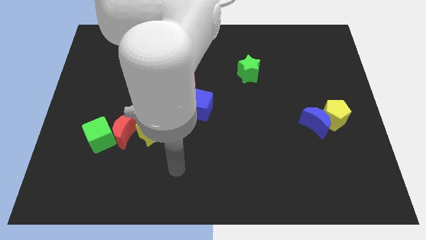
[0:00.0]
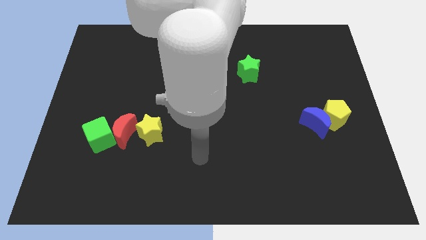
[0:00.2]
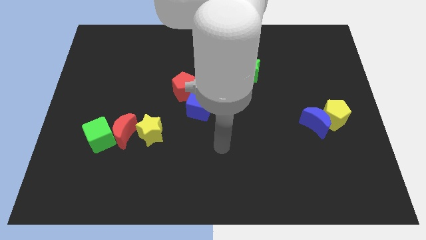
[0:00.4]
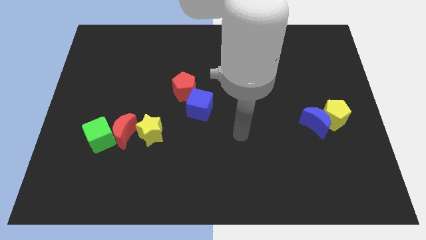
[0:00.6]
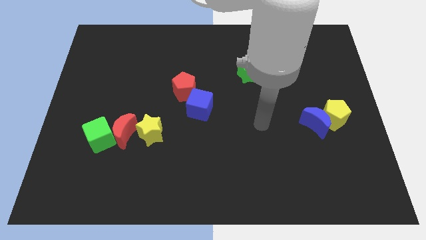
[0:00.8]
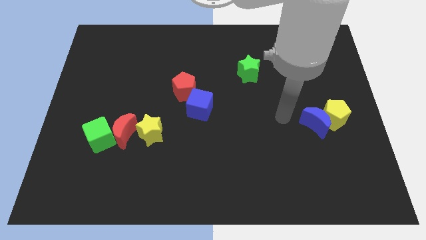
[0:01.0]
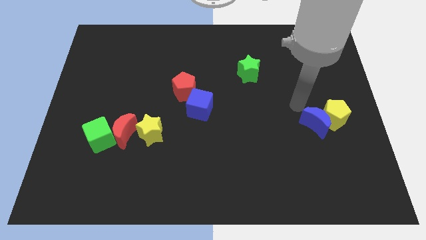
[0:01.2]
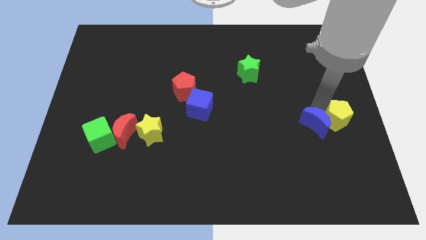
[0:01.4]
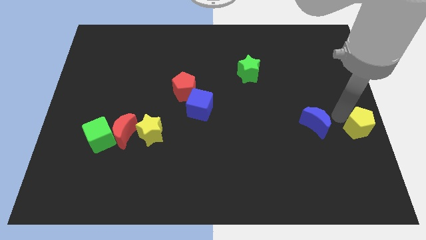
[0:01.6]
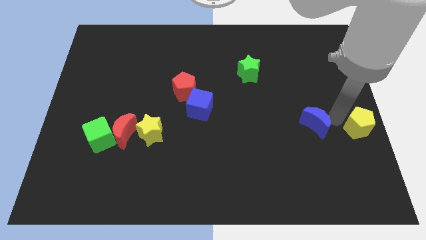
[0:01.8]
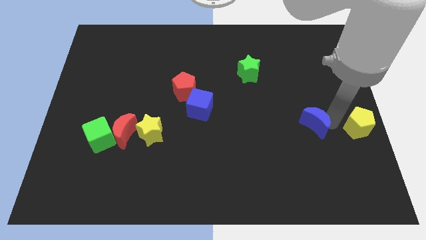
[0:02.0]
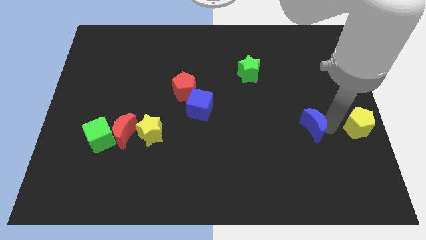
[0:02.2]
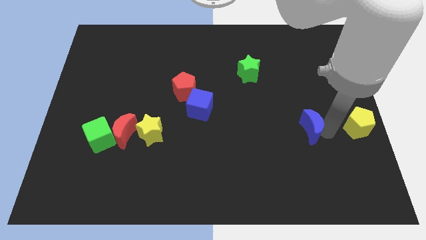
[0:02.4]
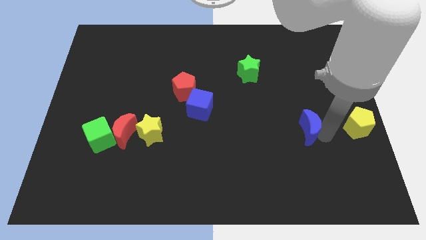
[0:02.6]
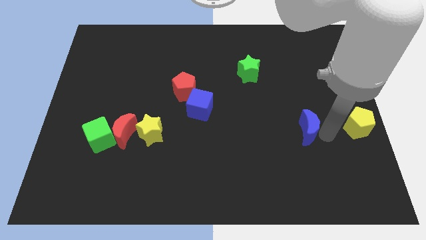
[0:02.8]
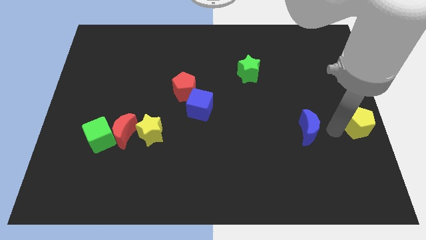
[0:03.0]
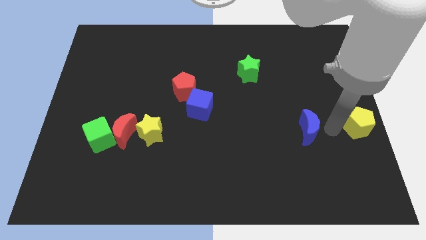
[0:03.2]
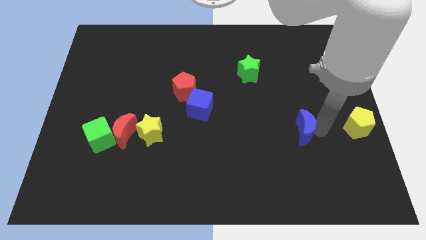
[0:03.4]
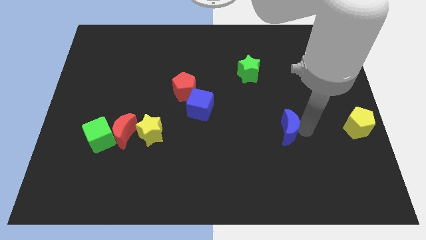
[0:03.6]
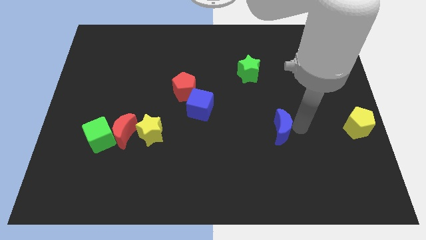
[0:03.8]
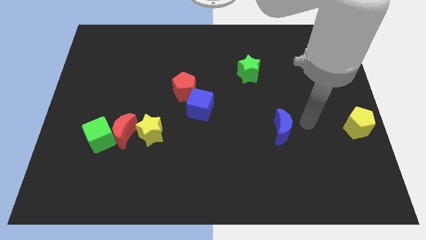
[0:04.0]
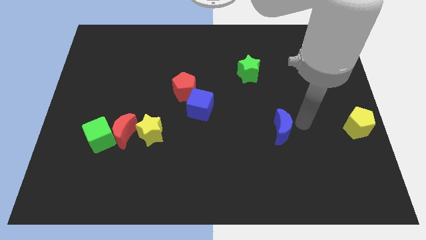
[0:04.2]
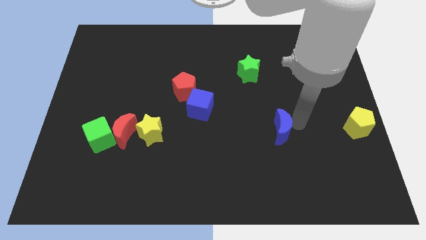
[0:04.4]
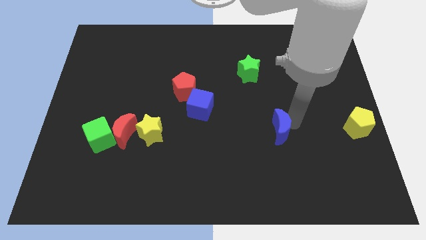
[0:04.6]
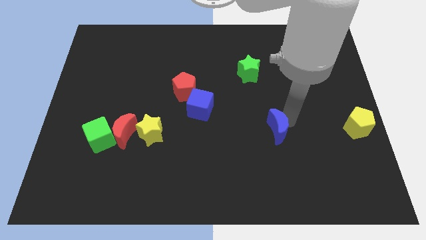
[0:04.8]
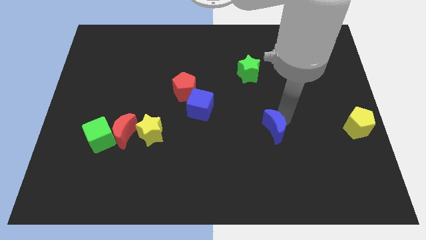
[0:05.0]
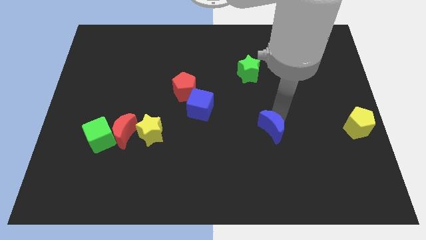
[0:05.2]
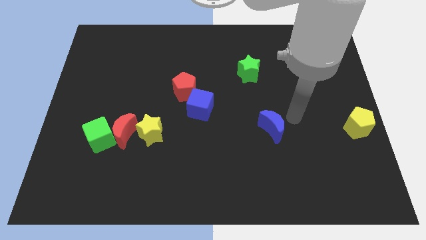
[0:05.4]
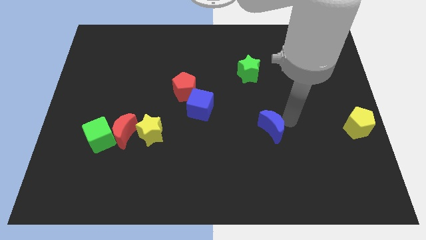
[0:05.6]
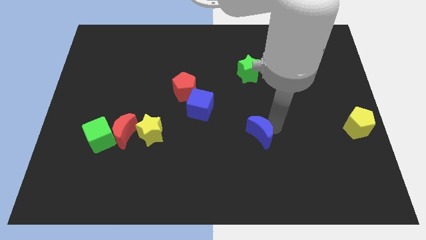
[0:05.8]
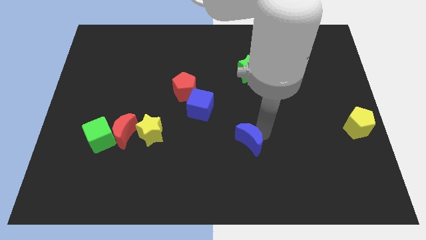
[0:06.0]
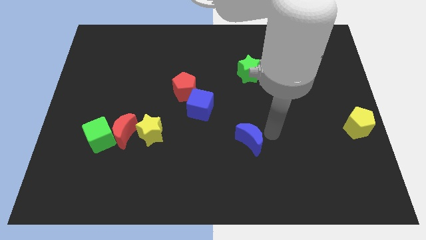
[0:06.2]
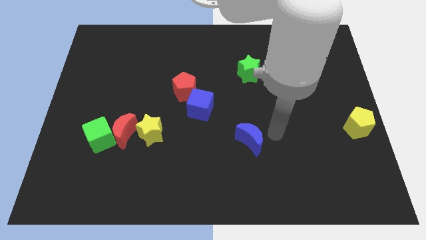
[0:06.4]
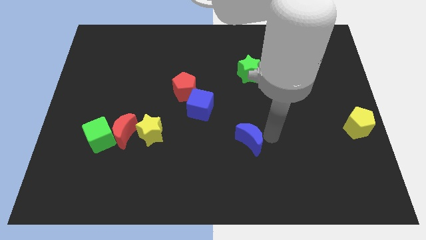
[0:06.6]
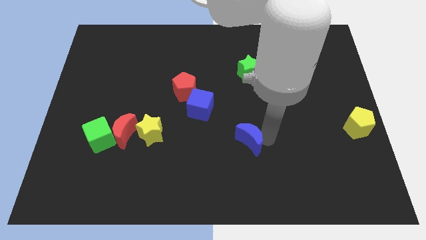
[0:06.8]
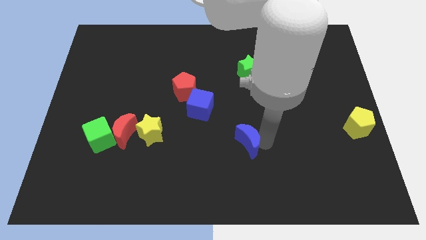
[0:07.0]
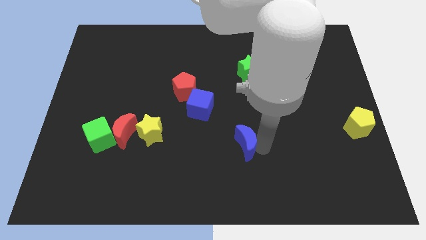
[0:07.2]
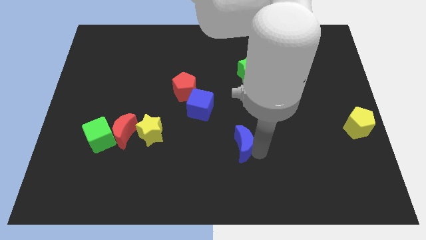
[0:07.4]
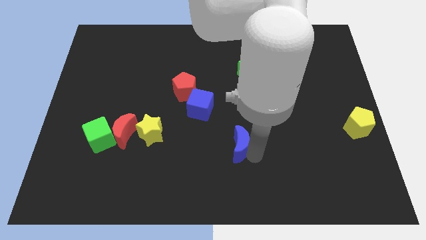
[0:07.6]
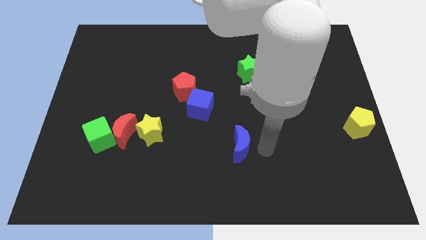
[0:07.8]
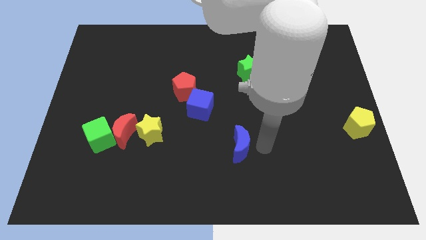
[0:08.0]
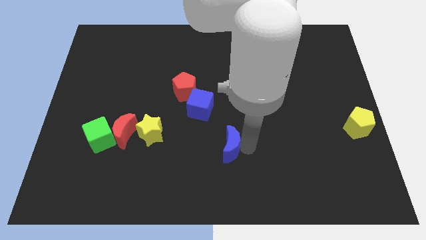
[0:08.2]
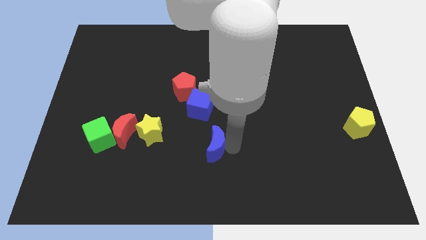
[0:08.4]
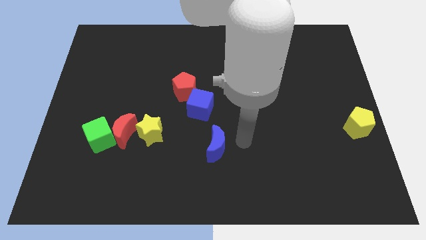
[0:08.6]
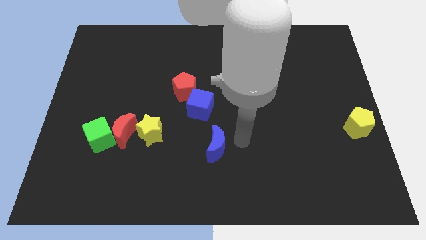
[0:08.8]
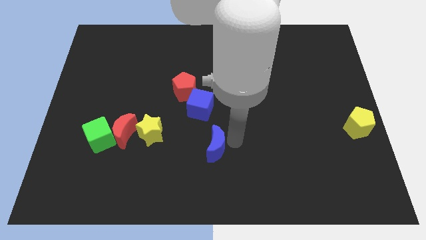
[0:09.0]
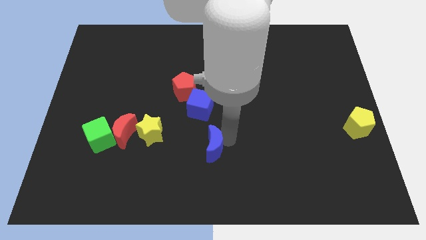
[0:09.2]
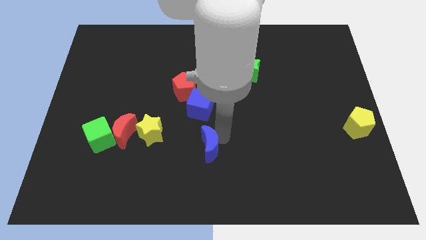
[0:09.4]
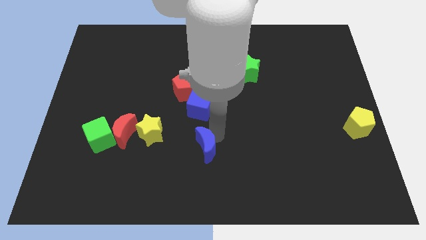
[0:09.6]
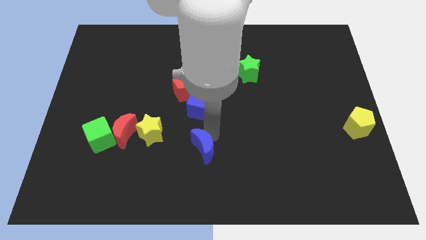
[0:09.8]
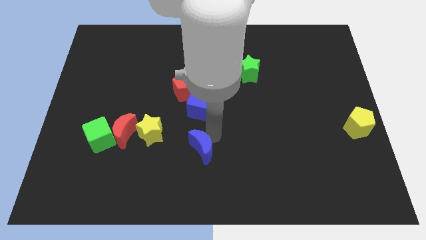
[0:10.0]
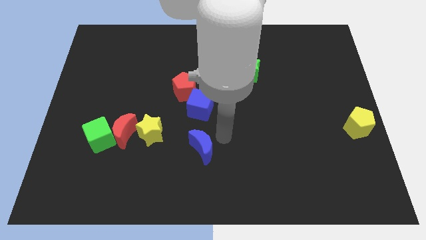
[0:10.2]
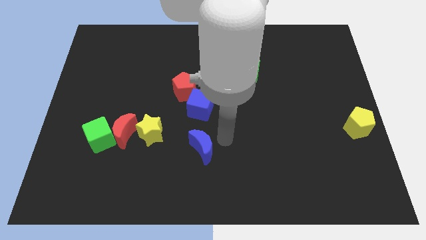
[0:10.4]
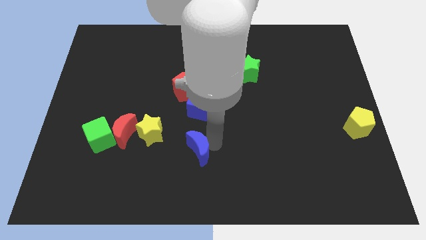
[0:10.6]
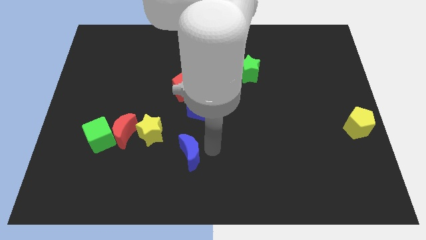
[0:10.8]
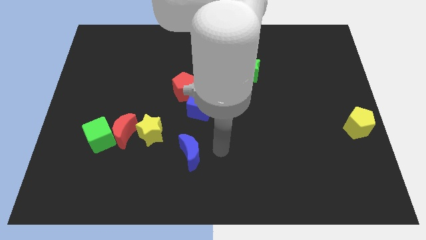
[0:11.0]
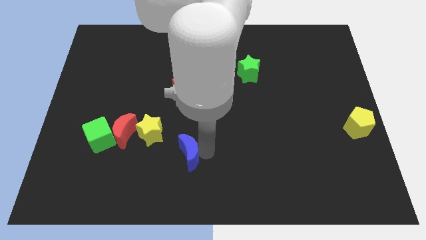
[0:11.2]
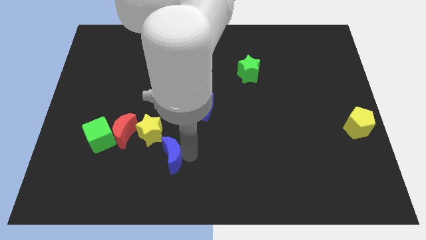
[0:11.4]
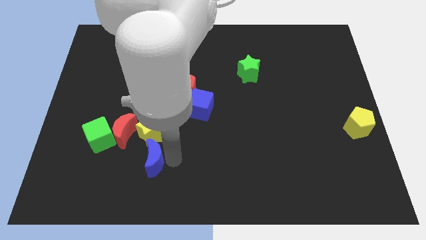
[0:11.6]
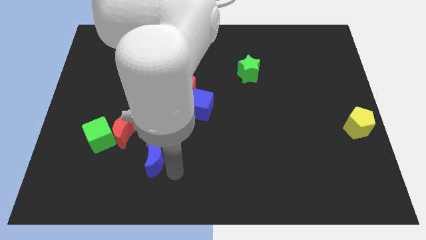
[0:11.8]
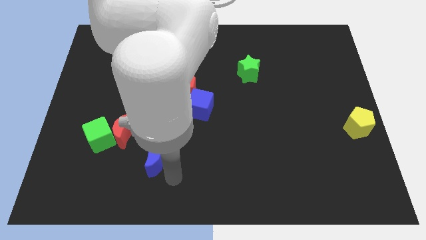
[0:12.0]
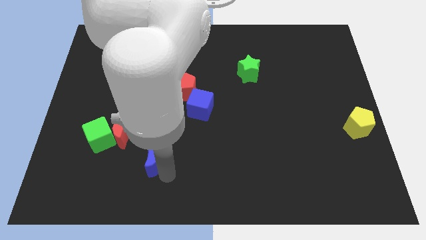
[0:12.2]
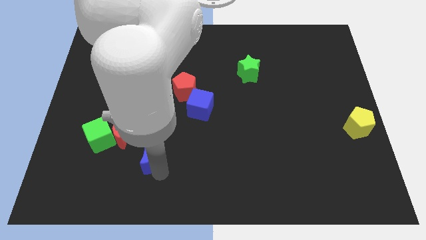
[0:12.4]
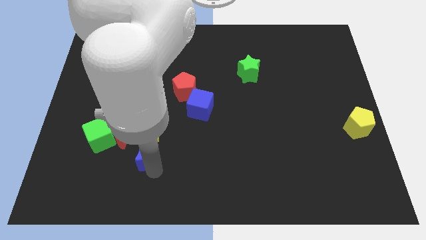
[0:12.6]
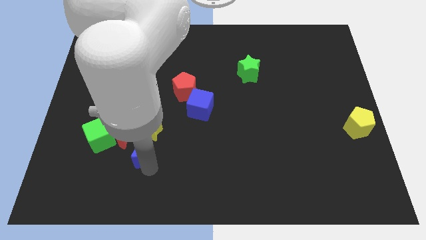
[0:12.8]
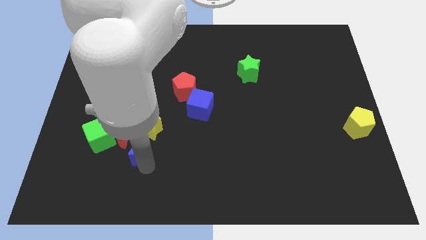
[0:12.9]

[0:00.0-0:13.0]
slide the blue moon towards the red moon

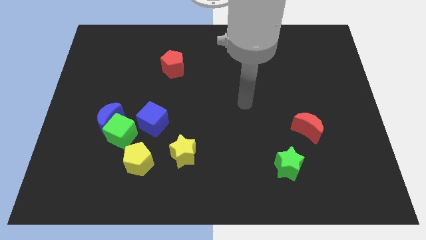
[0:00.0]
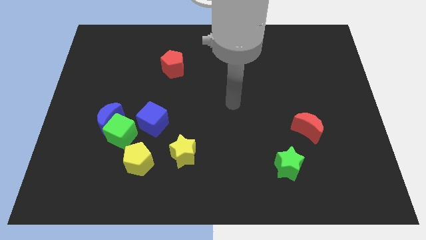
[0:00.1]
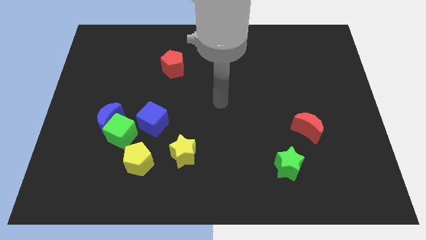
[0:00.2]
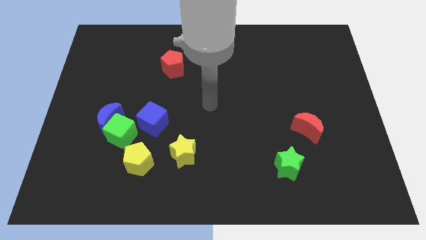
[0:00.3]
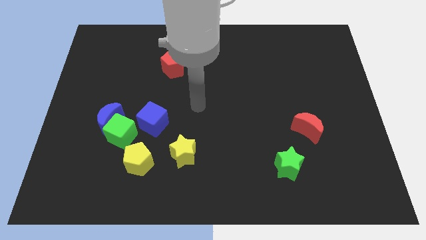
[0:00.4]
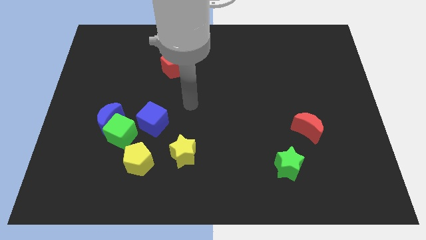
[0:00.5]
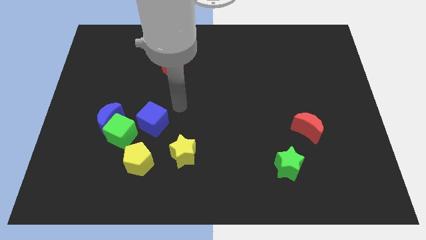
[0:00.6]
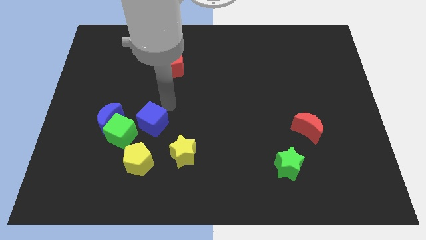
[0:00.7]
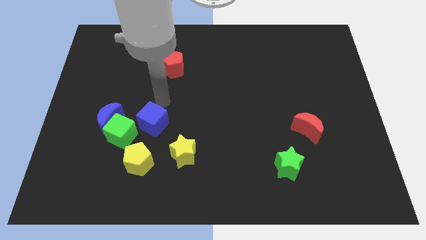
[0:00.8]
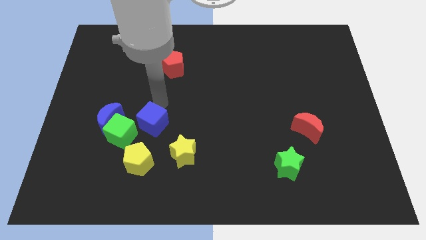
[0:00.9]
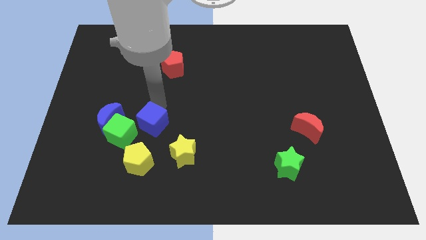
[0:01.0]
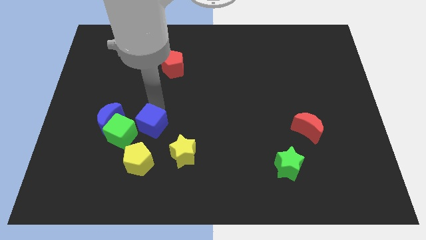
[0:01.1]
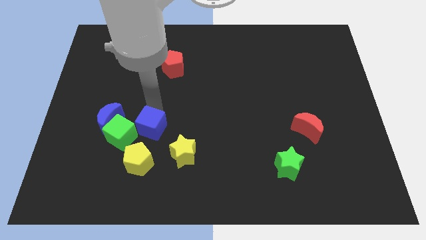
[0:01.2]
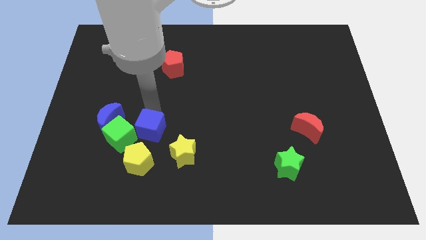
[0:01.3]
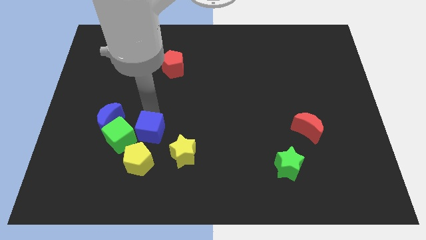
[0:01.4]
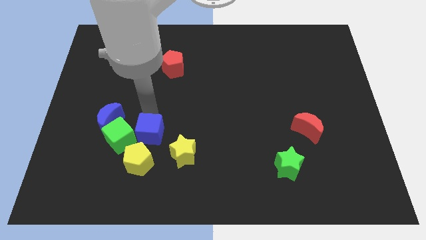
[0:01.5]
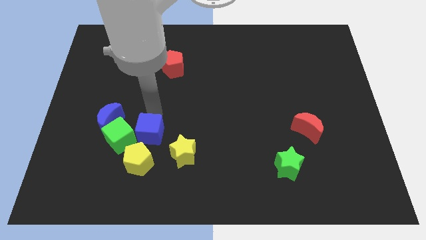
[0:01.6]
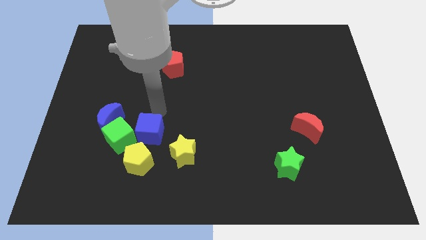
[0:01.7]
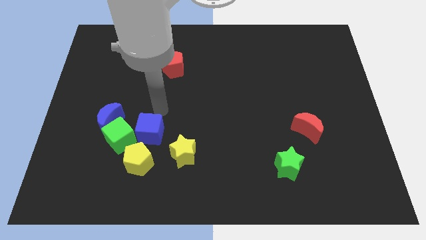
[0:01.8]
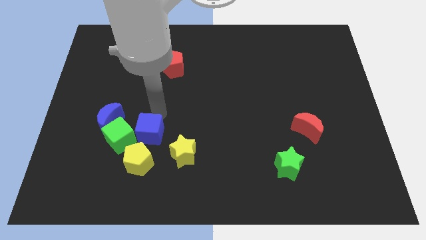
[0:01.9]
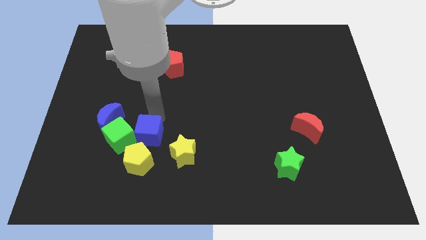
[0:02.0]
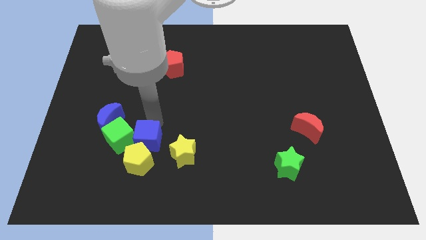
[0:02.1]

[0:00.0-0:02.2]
put the blue cube towards the yellow pentagon
